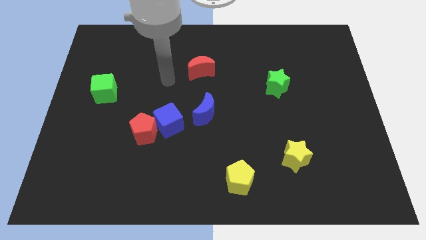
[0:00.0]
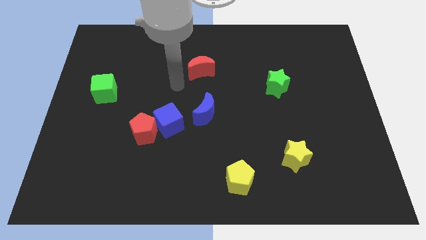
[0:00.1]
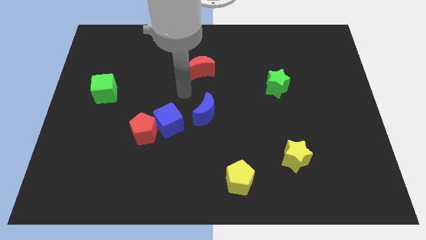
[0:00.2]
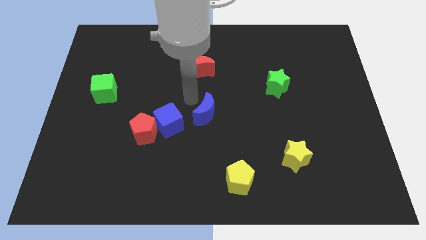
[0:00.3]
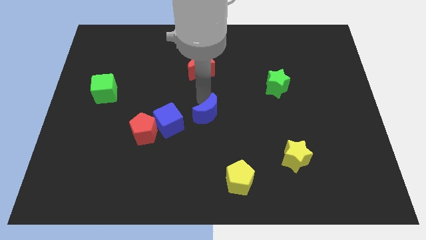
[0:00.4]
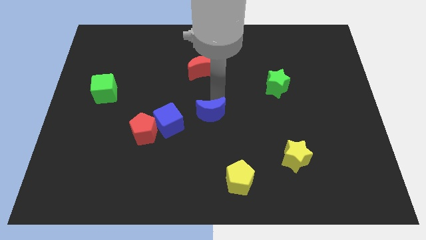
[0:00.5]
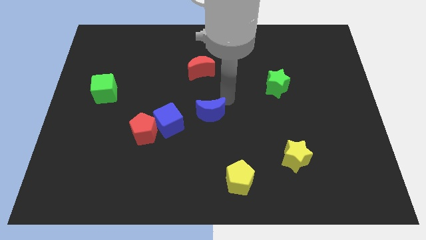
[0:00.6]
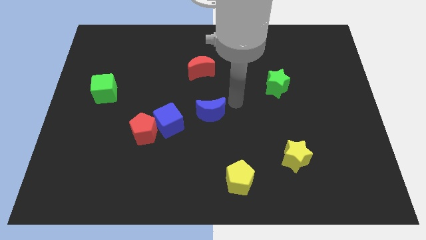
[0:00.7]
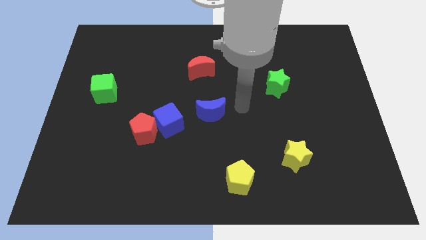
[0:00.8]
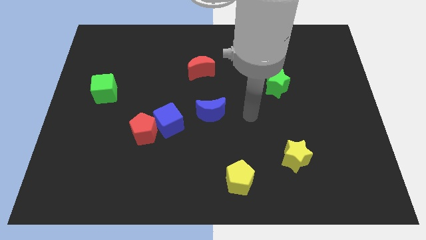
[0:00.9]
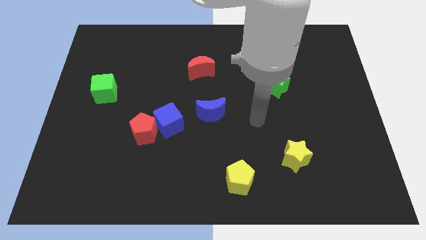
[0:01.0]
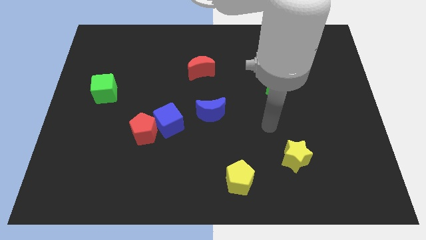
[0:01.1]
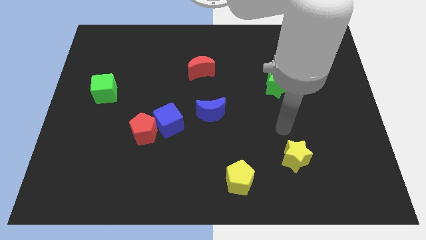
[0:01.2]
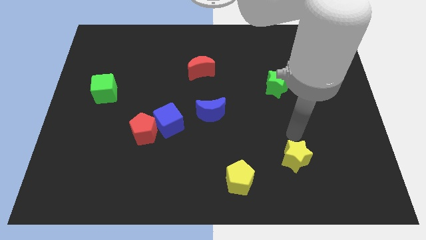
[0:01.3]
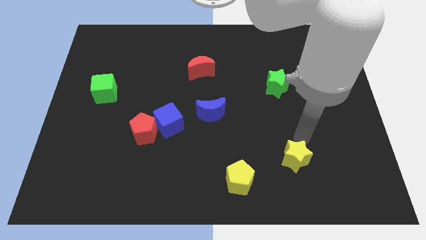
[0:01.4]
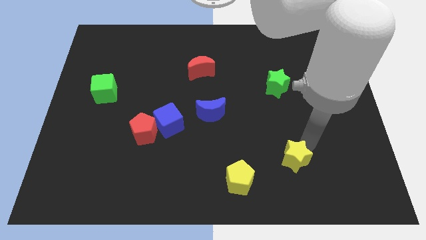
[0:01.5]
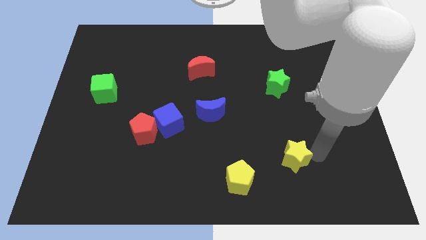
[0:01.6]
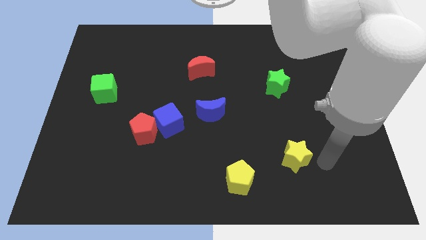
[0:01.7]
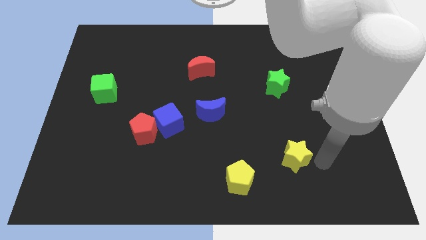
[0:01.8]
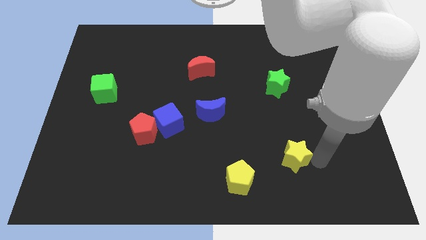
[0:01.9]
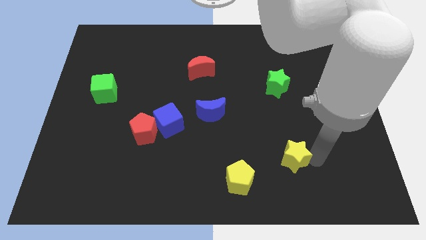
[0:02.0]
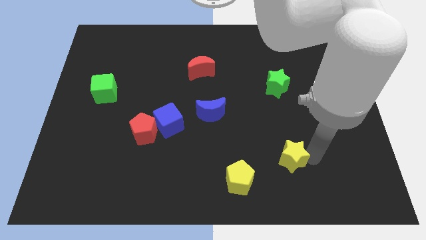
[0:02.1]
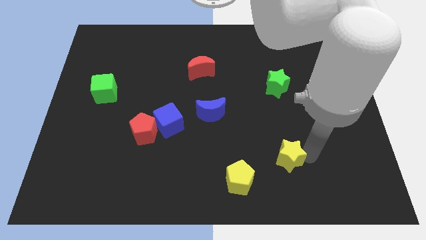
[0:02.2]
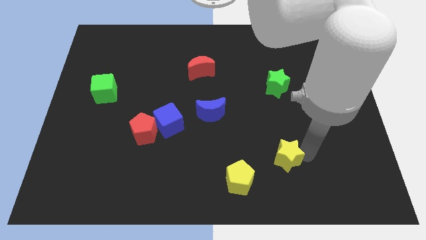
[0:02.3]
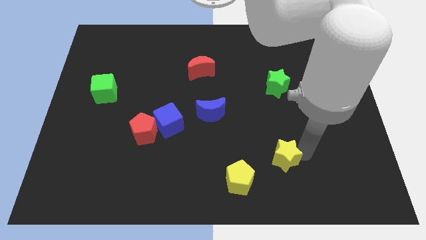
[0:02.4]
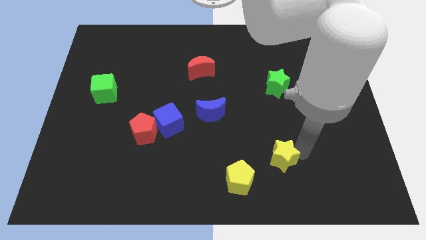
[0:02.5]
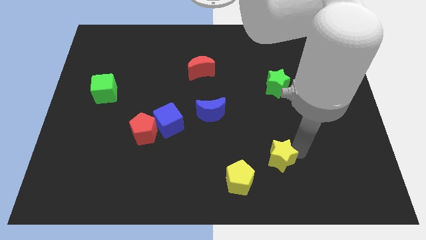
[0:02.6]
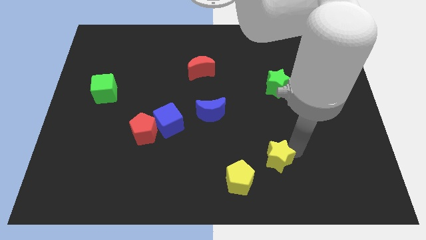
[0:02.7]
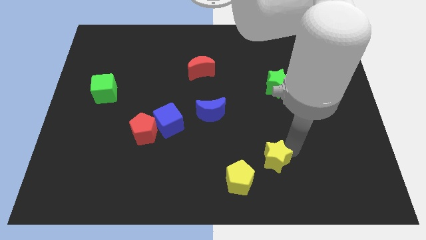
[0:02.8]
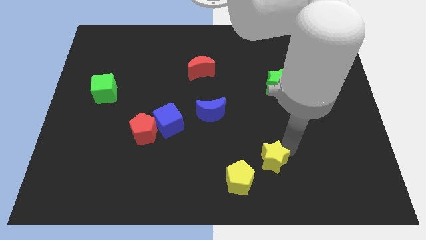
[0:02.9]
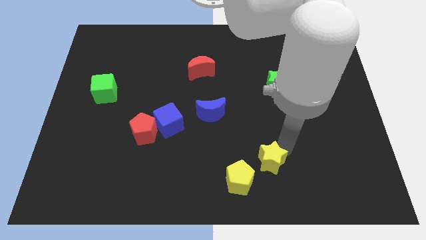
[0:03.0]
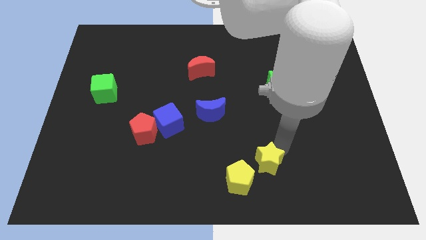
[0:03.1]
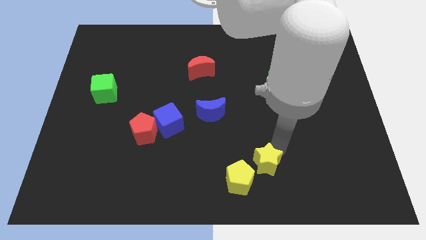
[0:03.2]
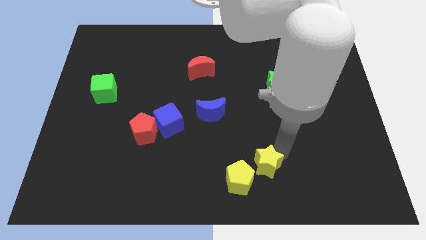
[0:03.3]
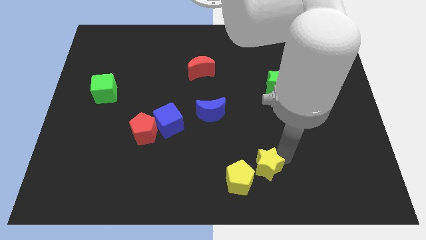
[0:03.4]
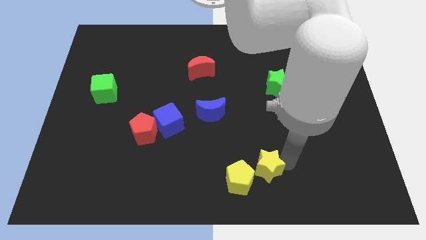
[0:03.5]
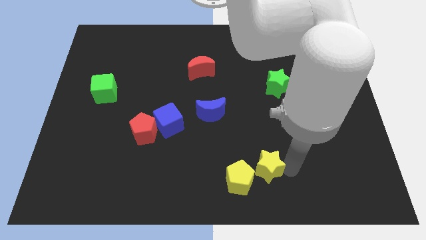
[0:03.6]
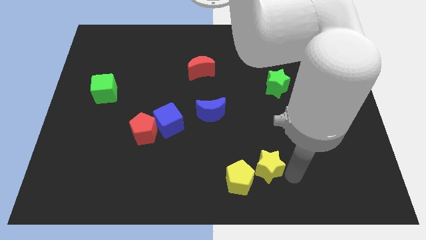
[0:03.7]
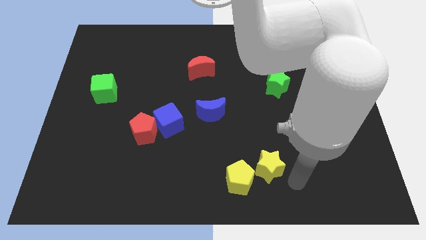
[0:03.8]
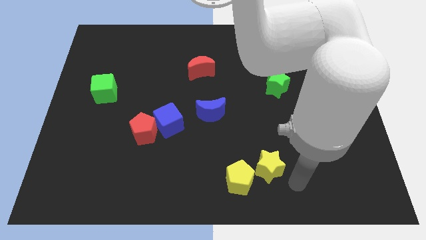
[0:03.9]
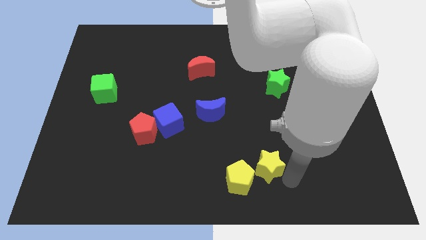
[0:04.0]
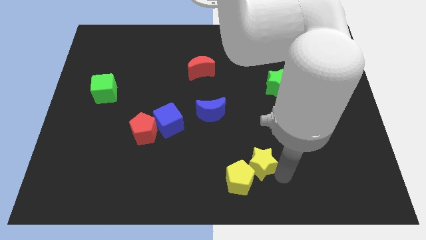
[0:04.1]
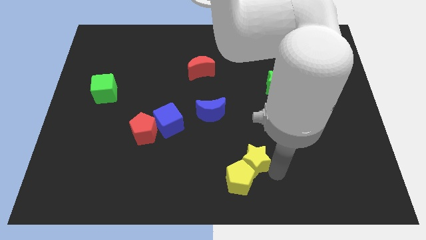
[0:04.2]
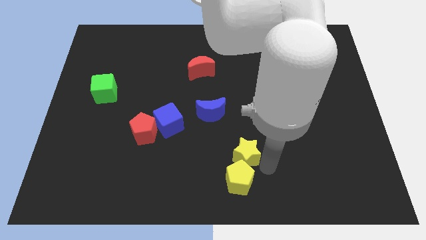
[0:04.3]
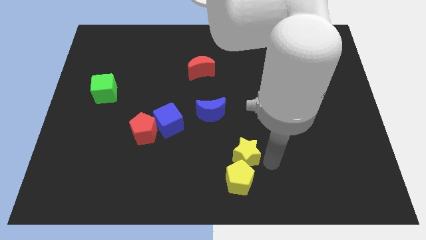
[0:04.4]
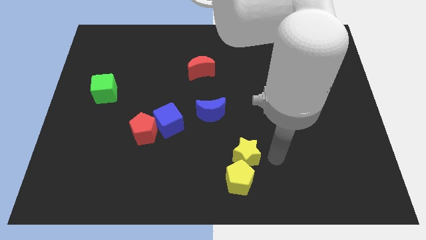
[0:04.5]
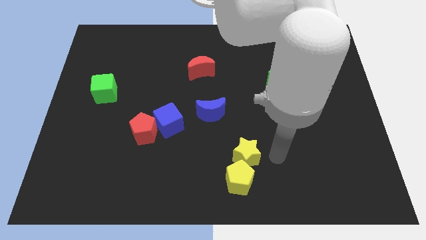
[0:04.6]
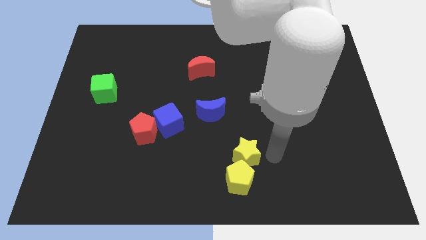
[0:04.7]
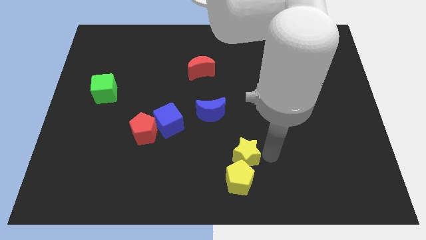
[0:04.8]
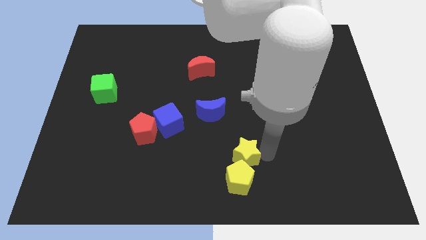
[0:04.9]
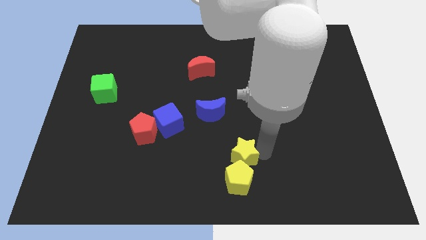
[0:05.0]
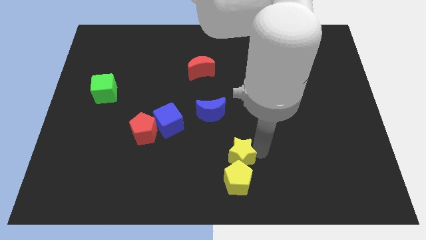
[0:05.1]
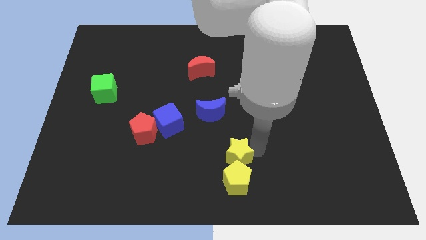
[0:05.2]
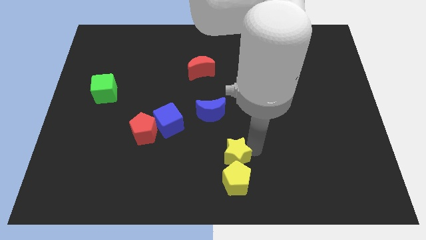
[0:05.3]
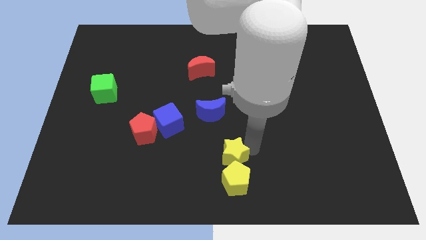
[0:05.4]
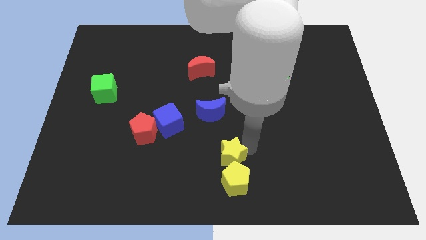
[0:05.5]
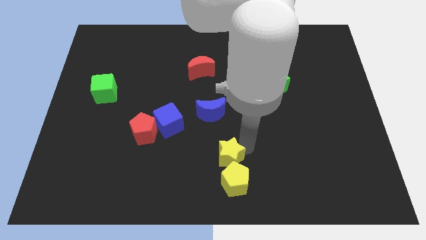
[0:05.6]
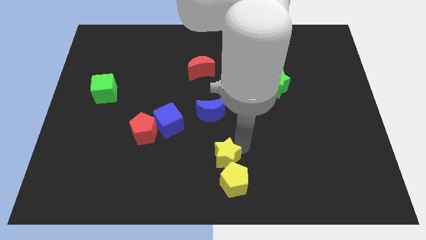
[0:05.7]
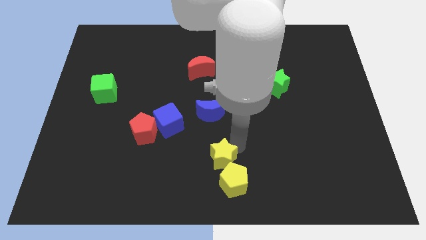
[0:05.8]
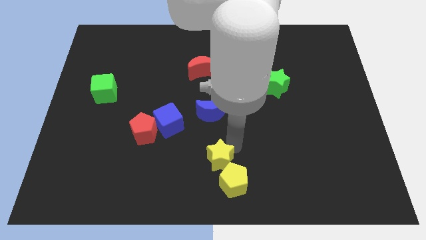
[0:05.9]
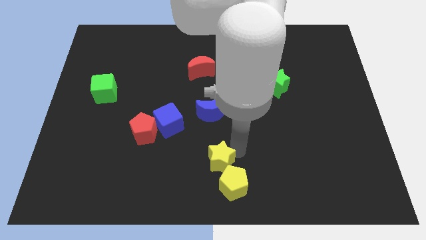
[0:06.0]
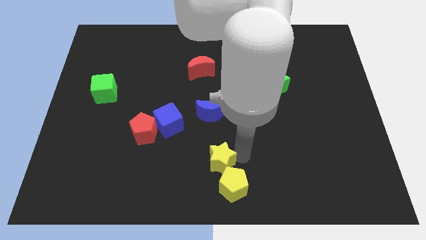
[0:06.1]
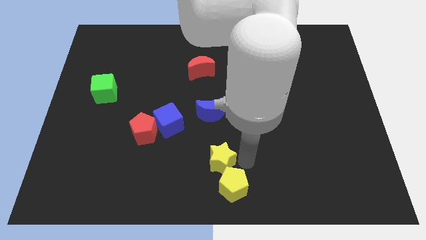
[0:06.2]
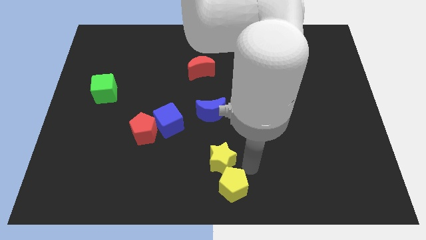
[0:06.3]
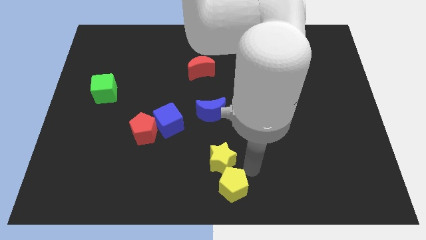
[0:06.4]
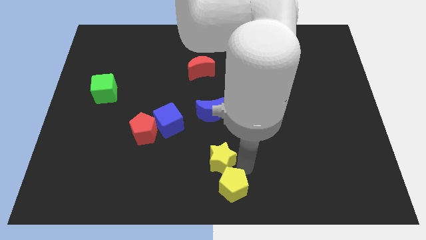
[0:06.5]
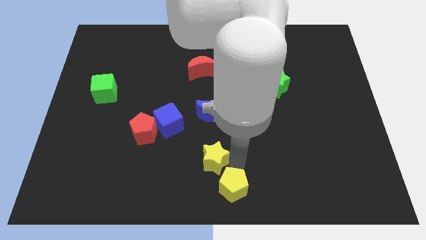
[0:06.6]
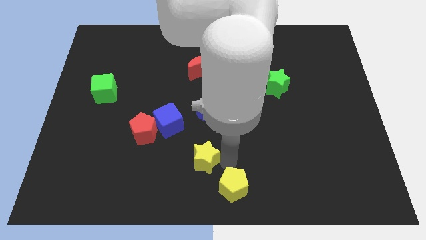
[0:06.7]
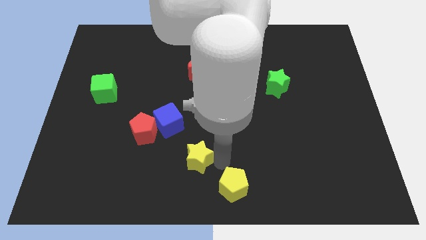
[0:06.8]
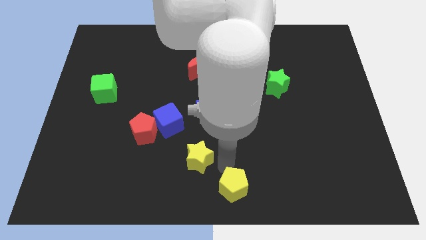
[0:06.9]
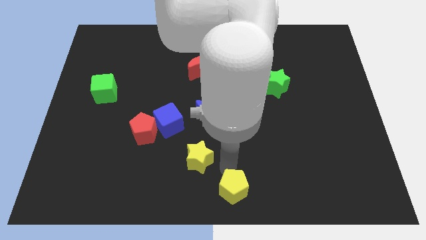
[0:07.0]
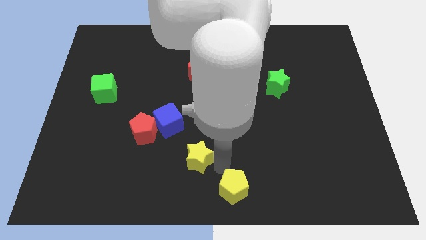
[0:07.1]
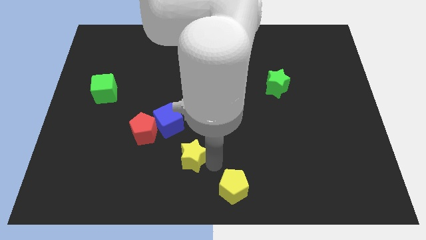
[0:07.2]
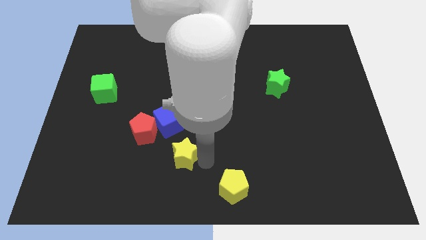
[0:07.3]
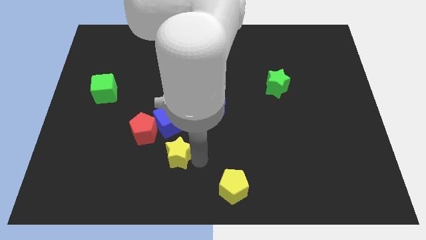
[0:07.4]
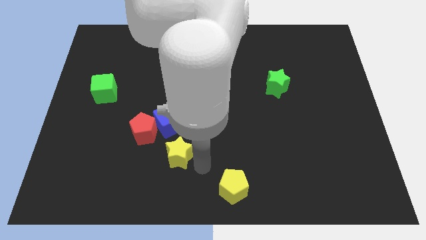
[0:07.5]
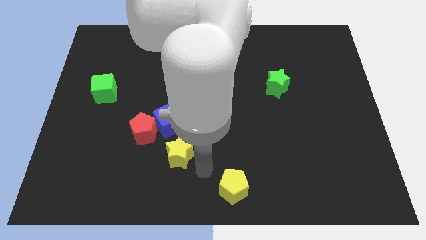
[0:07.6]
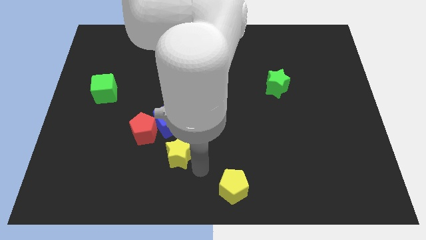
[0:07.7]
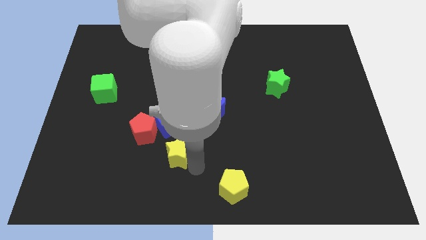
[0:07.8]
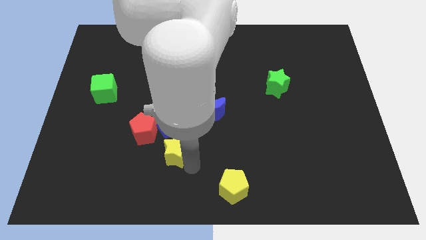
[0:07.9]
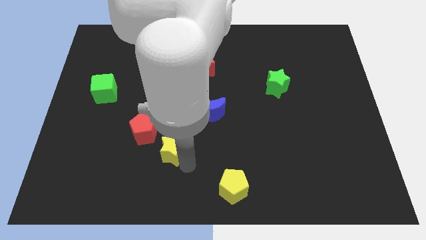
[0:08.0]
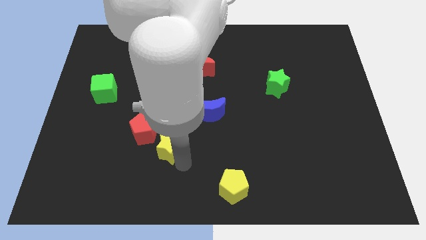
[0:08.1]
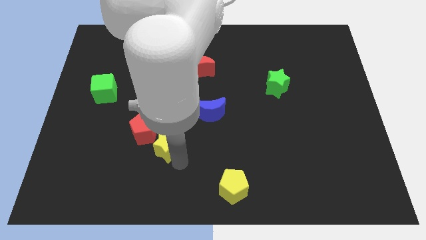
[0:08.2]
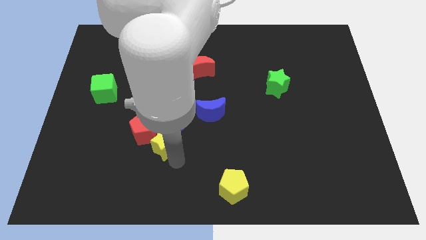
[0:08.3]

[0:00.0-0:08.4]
push the yellow star towards the red pentagon
